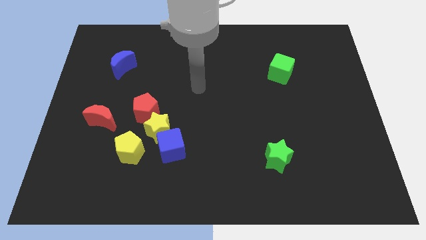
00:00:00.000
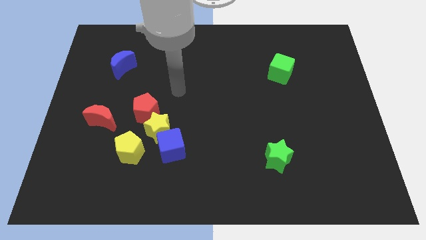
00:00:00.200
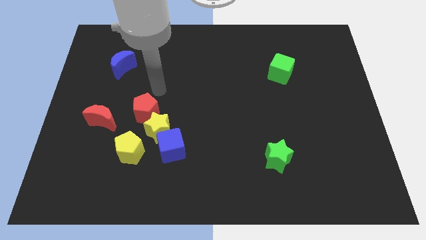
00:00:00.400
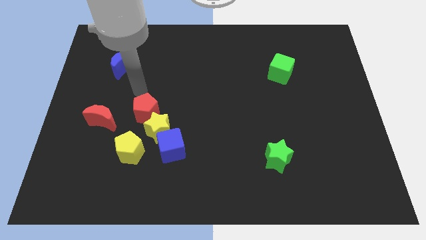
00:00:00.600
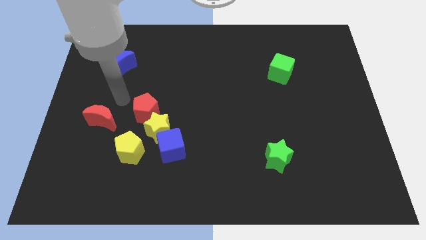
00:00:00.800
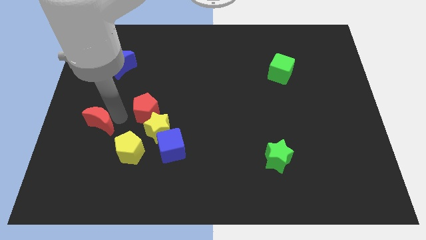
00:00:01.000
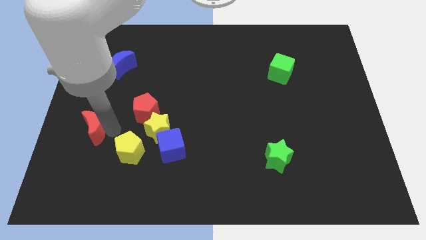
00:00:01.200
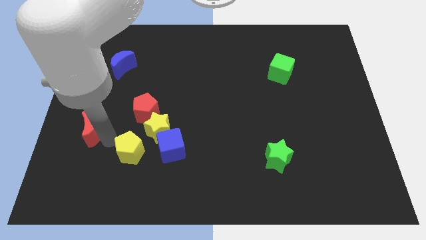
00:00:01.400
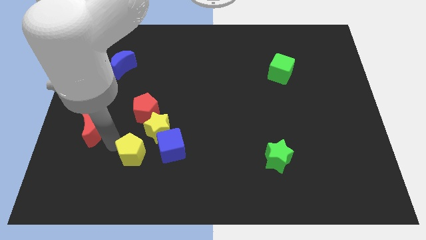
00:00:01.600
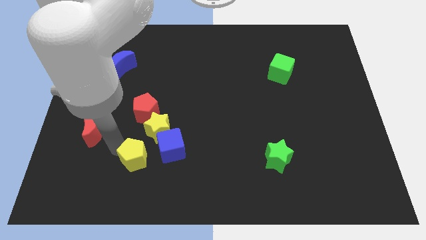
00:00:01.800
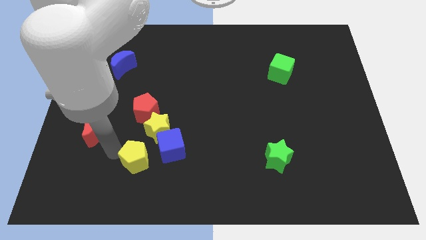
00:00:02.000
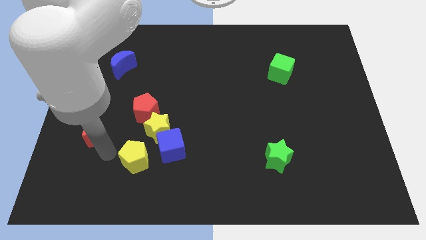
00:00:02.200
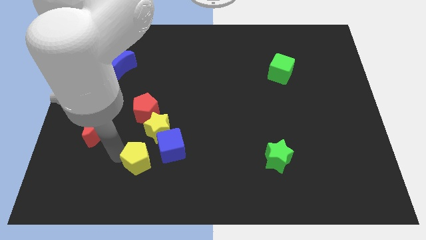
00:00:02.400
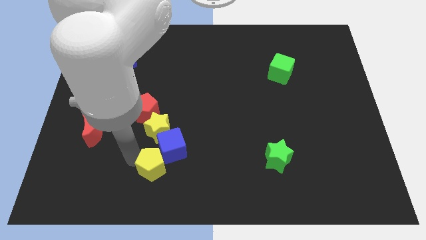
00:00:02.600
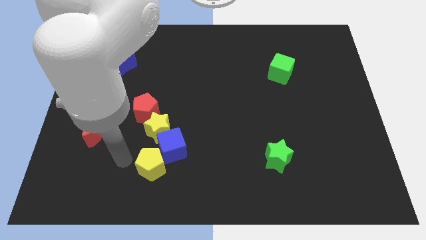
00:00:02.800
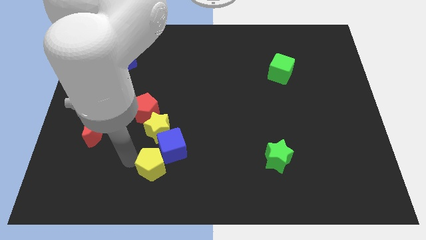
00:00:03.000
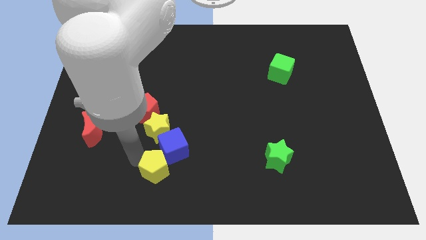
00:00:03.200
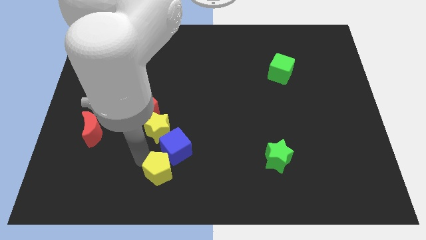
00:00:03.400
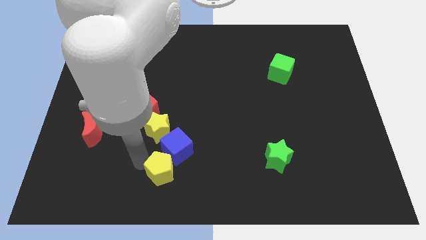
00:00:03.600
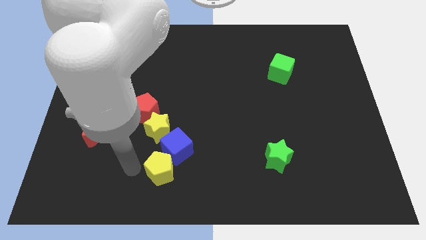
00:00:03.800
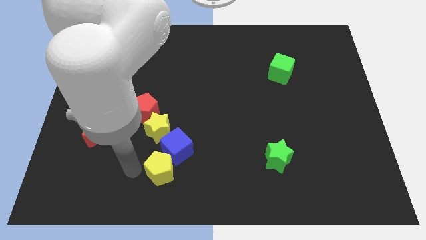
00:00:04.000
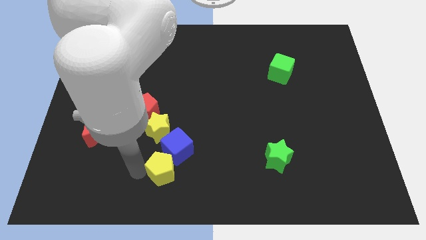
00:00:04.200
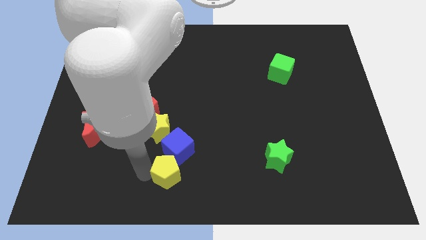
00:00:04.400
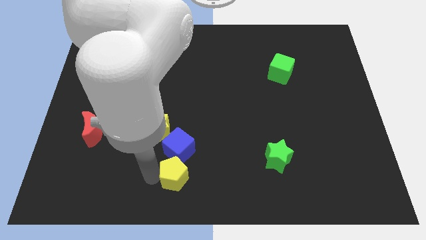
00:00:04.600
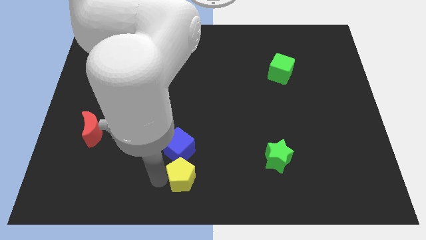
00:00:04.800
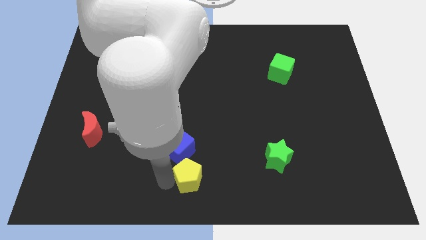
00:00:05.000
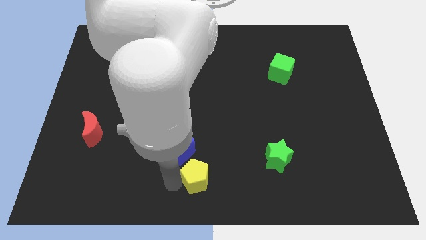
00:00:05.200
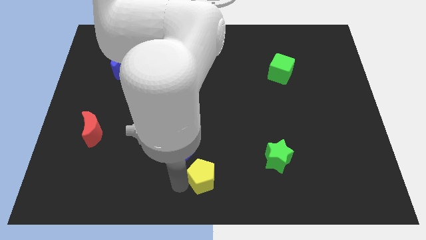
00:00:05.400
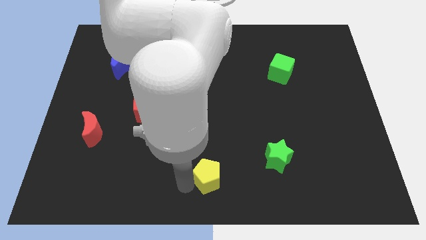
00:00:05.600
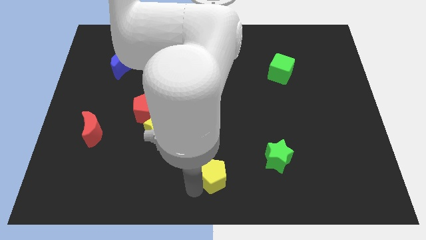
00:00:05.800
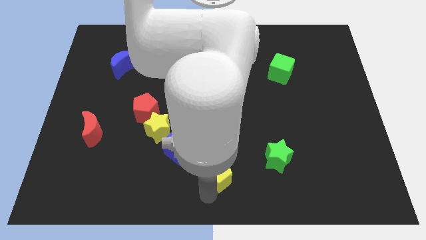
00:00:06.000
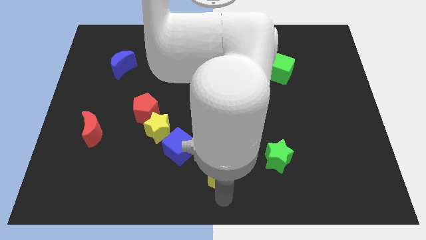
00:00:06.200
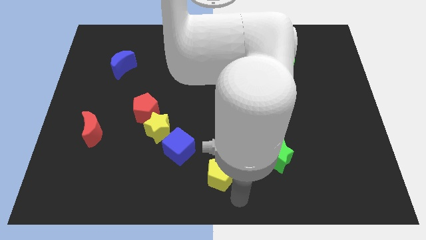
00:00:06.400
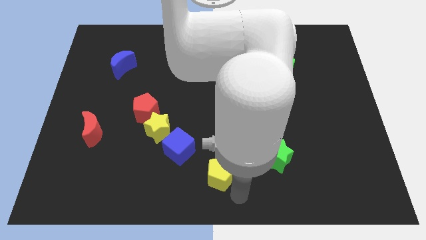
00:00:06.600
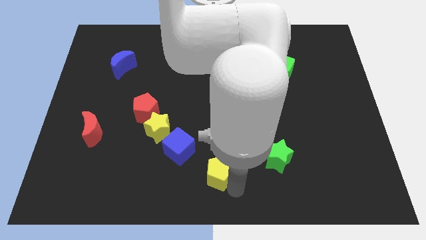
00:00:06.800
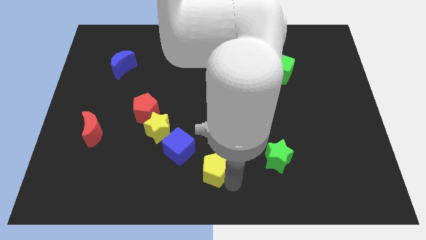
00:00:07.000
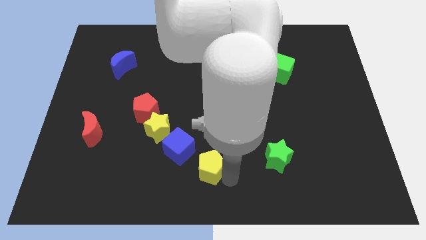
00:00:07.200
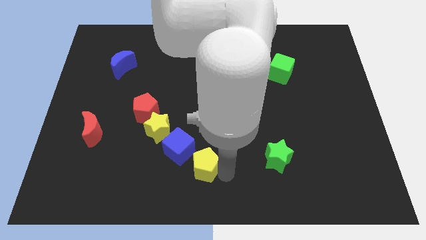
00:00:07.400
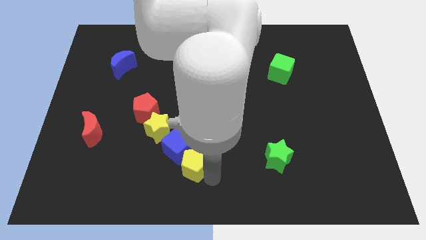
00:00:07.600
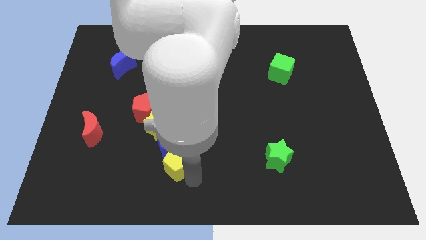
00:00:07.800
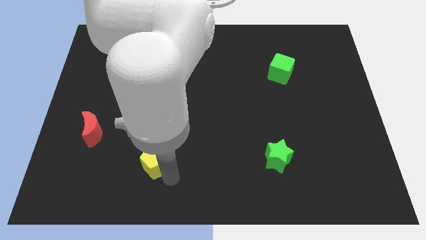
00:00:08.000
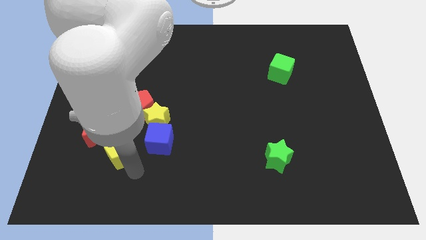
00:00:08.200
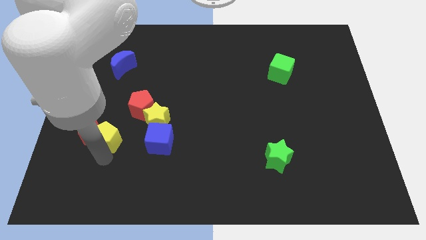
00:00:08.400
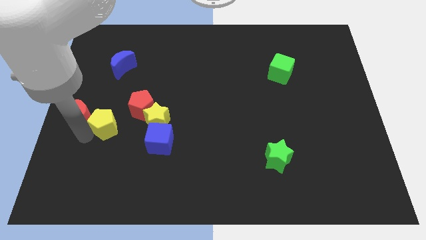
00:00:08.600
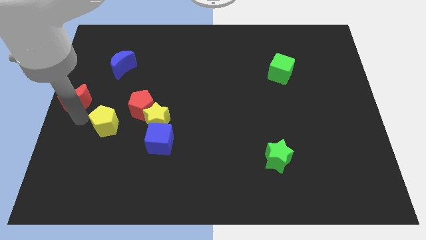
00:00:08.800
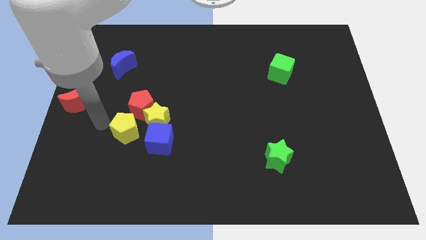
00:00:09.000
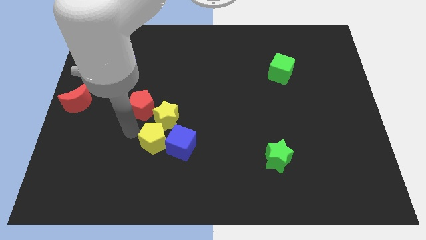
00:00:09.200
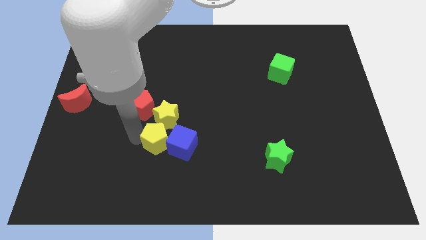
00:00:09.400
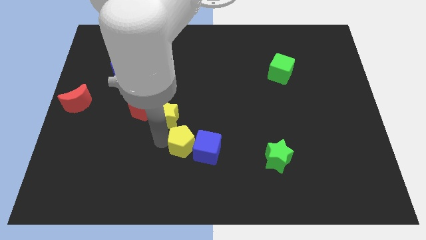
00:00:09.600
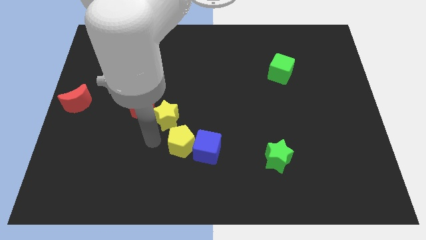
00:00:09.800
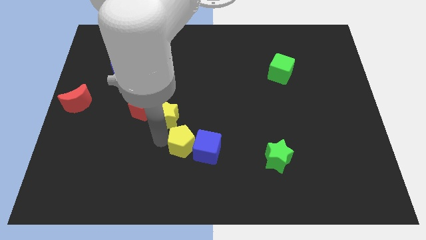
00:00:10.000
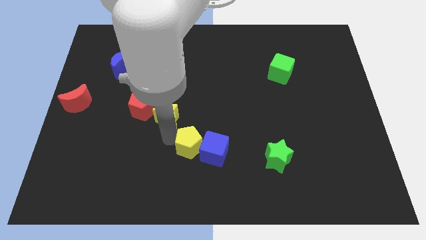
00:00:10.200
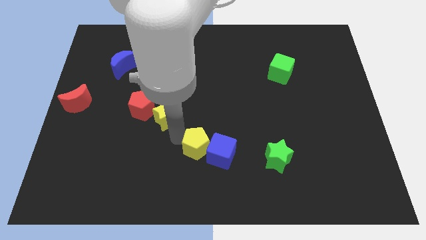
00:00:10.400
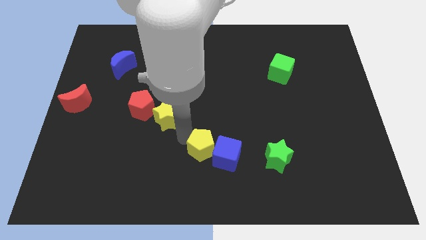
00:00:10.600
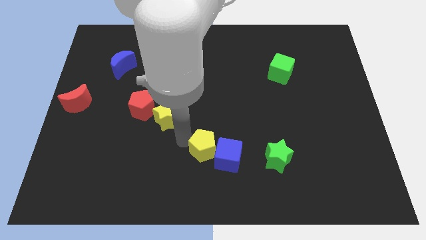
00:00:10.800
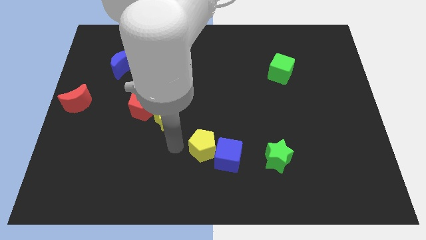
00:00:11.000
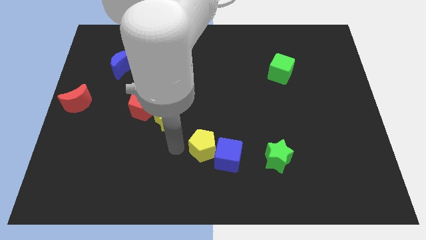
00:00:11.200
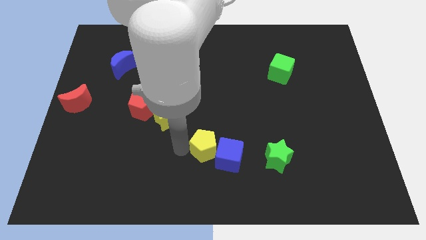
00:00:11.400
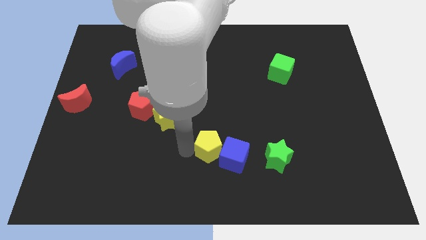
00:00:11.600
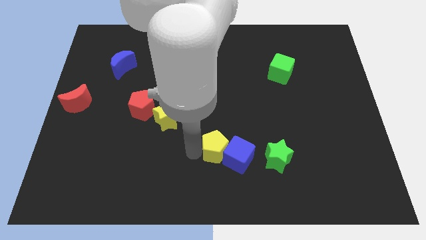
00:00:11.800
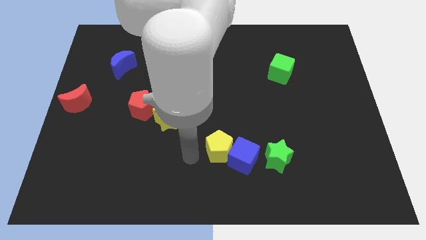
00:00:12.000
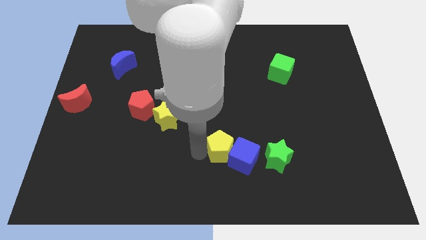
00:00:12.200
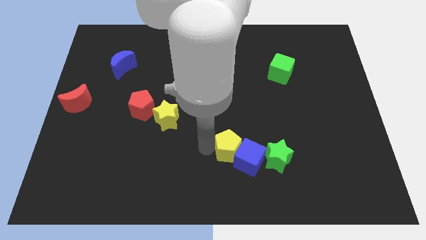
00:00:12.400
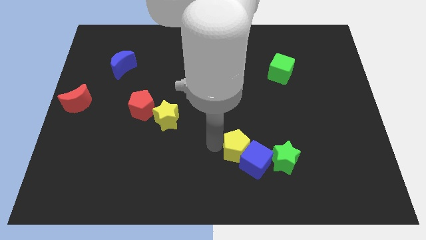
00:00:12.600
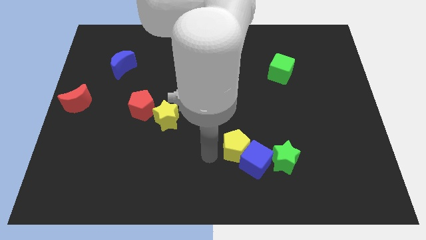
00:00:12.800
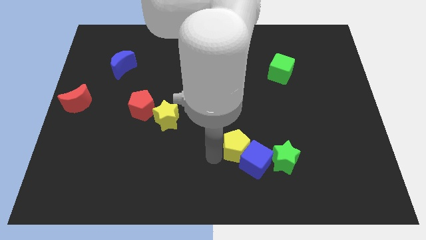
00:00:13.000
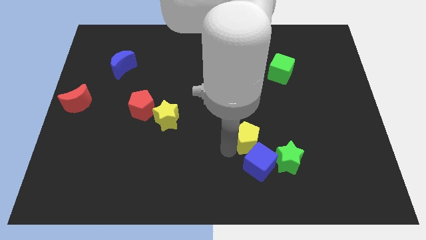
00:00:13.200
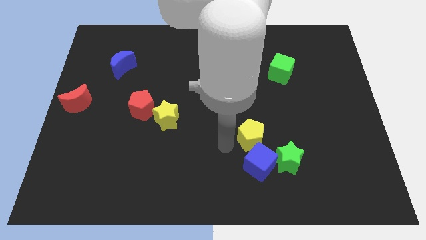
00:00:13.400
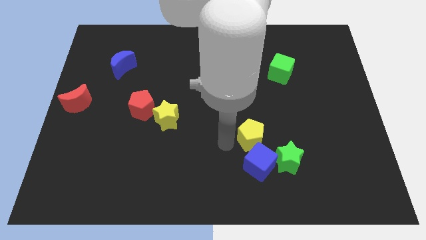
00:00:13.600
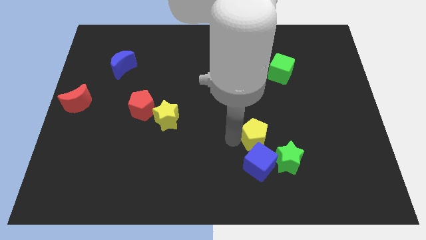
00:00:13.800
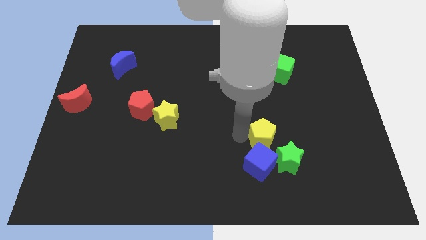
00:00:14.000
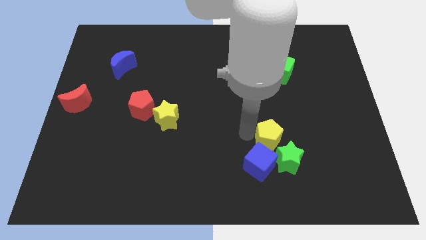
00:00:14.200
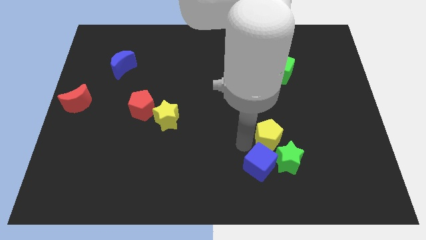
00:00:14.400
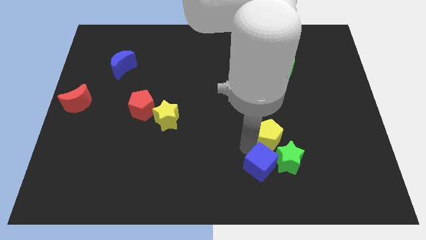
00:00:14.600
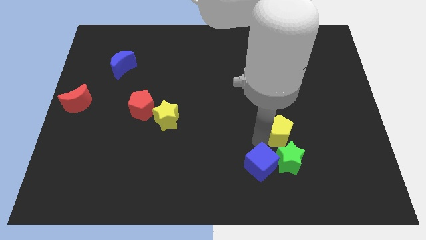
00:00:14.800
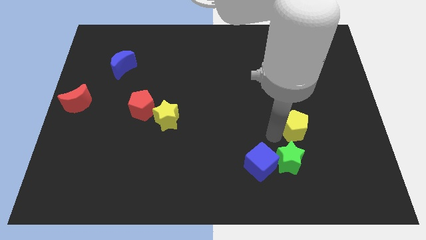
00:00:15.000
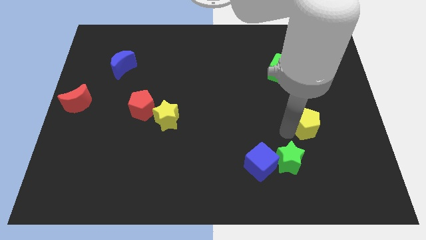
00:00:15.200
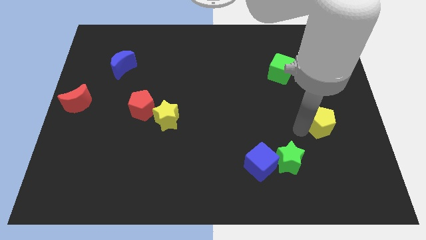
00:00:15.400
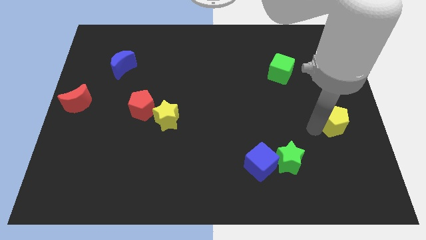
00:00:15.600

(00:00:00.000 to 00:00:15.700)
slide the yellow pentagon to the center right
